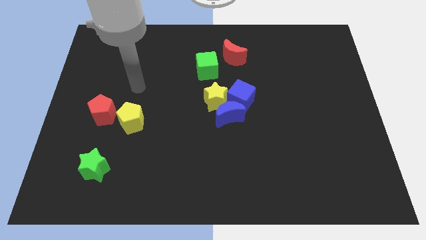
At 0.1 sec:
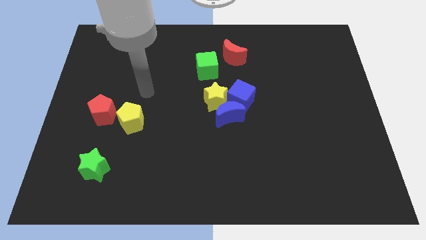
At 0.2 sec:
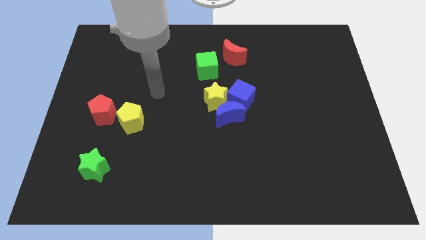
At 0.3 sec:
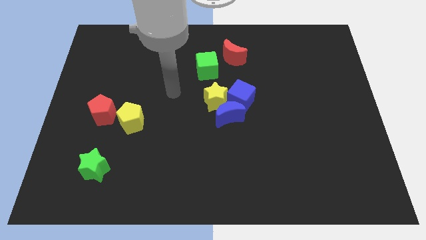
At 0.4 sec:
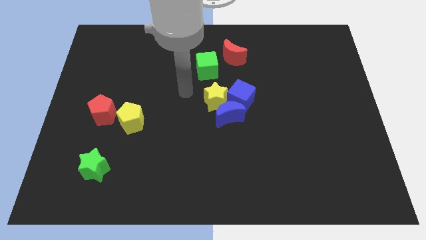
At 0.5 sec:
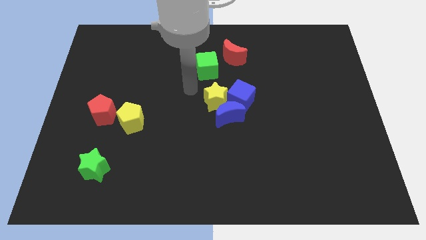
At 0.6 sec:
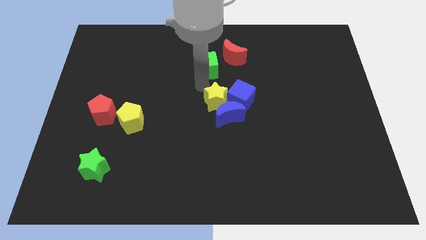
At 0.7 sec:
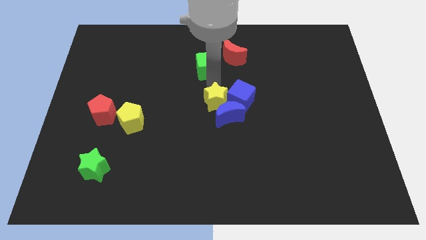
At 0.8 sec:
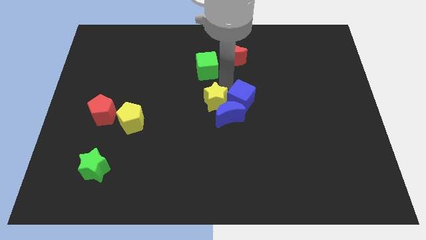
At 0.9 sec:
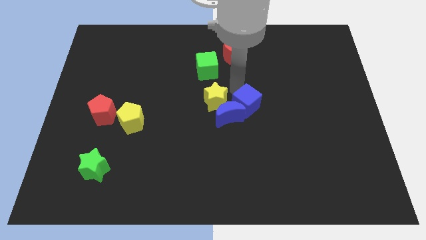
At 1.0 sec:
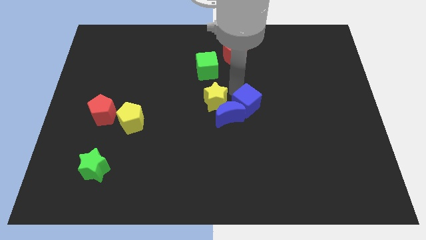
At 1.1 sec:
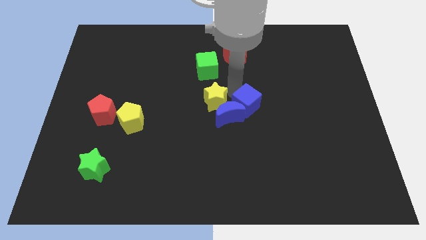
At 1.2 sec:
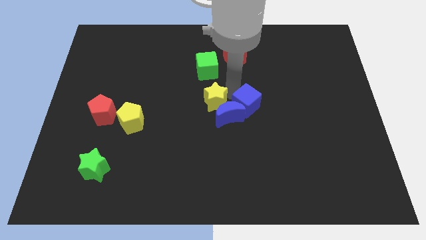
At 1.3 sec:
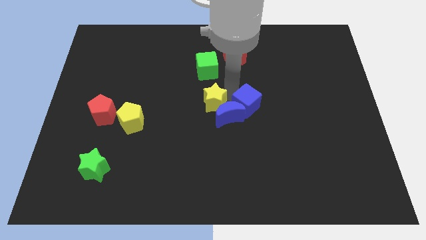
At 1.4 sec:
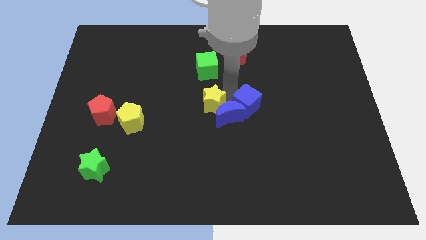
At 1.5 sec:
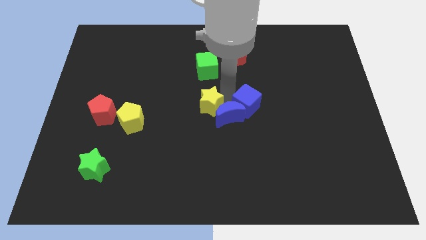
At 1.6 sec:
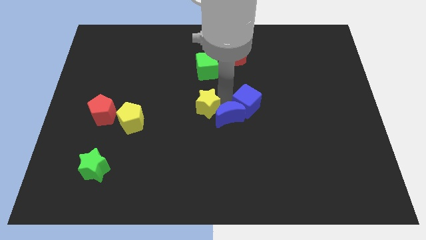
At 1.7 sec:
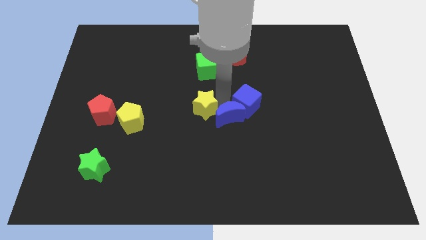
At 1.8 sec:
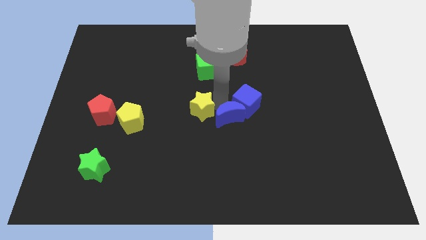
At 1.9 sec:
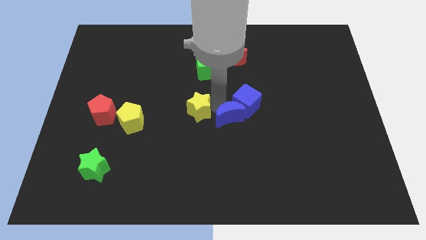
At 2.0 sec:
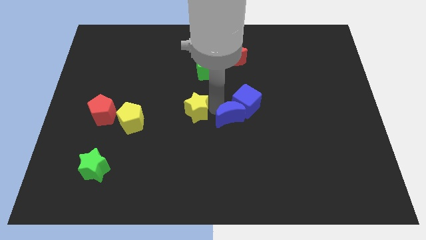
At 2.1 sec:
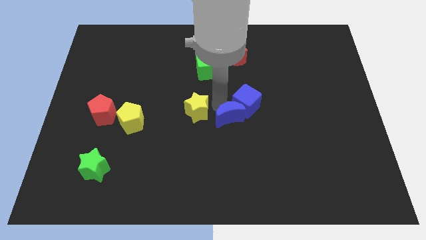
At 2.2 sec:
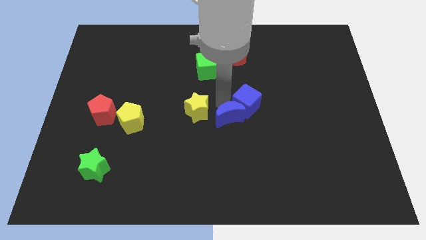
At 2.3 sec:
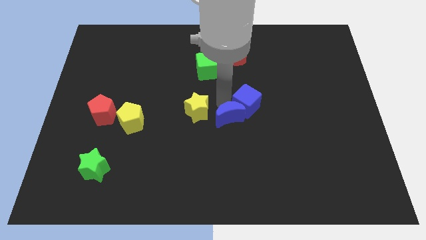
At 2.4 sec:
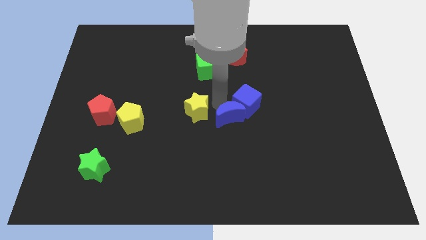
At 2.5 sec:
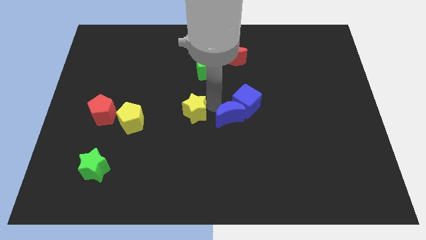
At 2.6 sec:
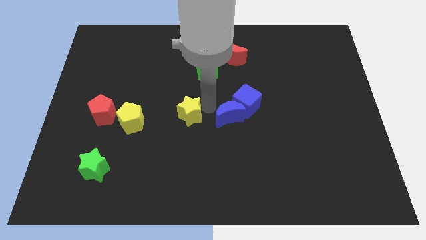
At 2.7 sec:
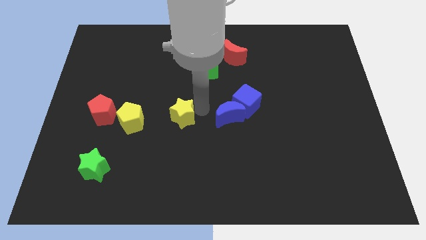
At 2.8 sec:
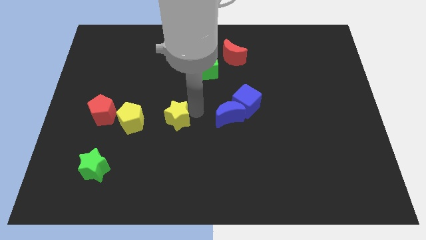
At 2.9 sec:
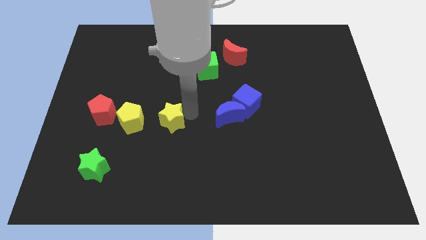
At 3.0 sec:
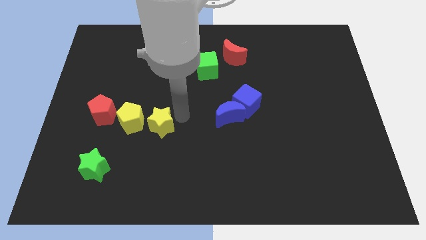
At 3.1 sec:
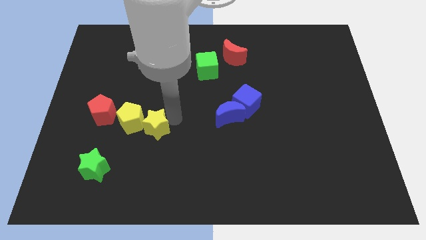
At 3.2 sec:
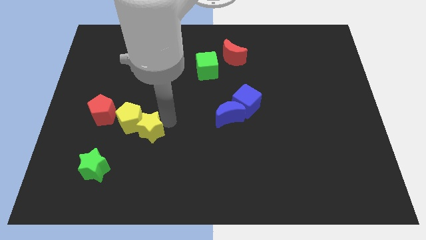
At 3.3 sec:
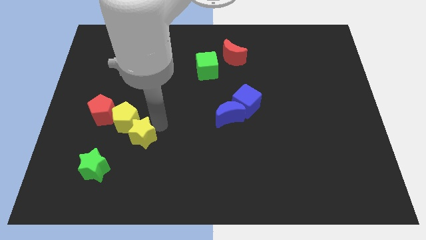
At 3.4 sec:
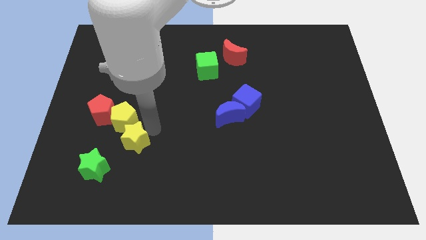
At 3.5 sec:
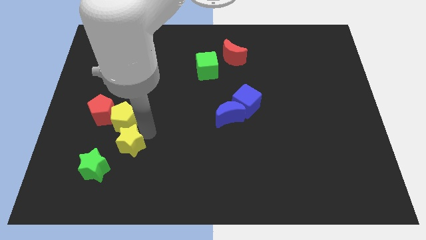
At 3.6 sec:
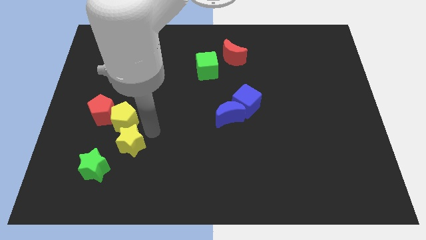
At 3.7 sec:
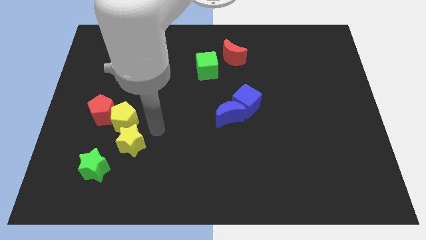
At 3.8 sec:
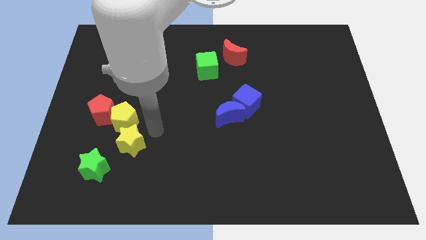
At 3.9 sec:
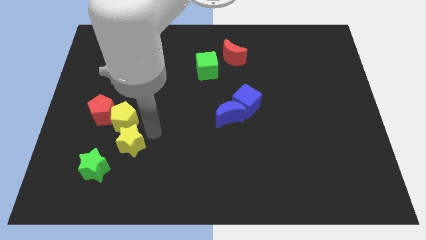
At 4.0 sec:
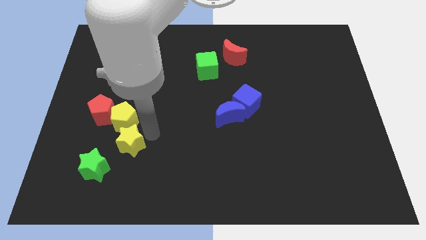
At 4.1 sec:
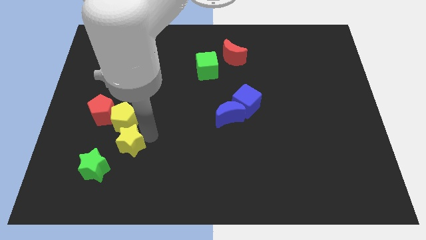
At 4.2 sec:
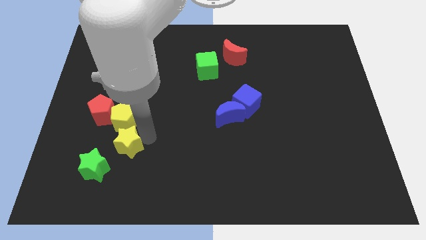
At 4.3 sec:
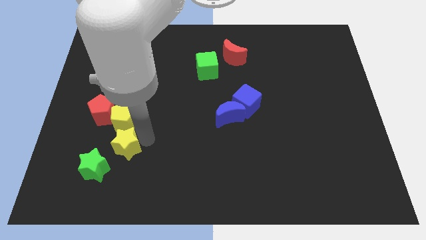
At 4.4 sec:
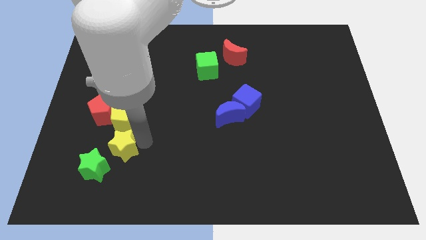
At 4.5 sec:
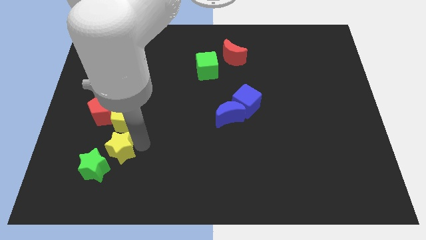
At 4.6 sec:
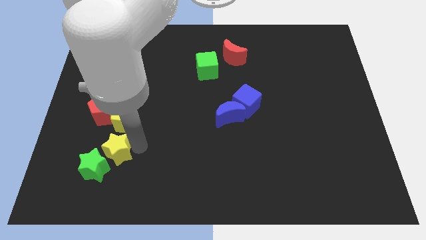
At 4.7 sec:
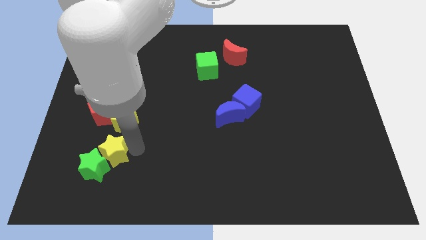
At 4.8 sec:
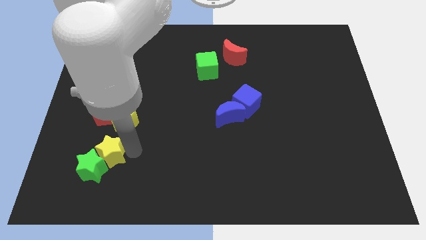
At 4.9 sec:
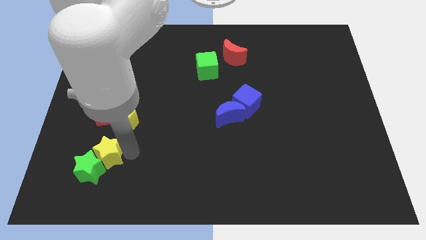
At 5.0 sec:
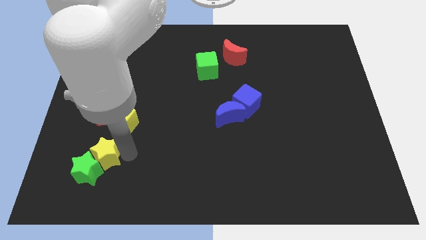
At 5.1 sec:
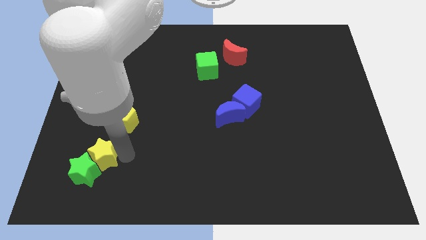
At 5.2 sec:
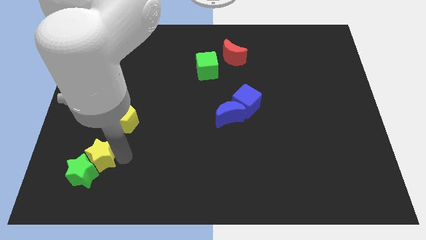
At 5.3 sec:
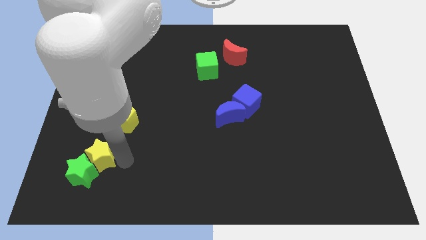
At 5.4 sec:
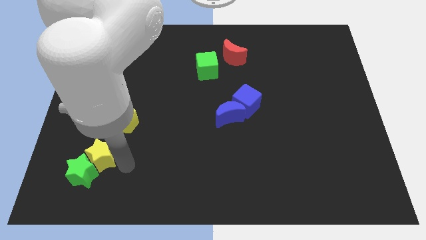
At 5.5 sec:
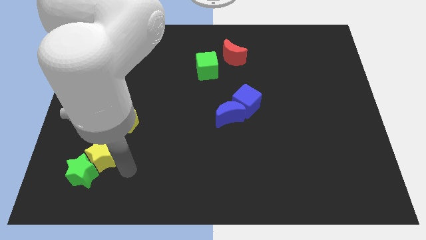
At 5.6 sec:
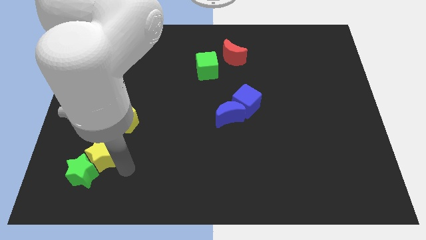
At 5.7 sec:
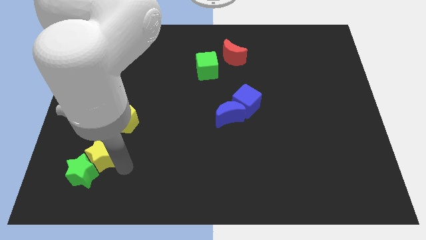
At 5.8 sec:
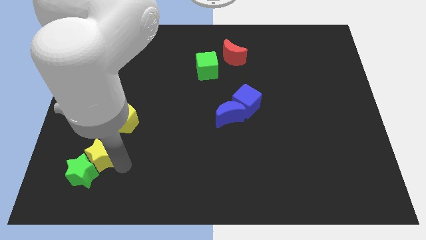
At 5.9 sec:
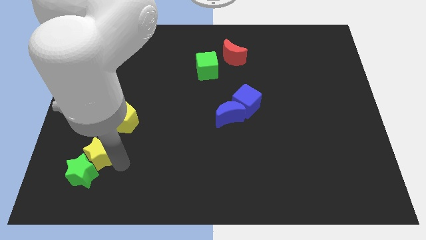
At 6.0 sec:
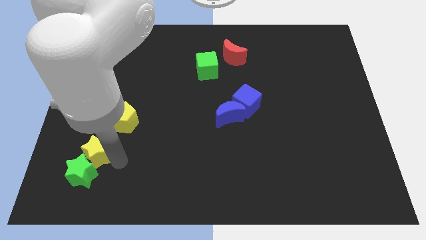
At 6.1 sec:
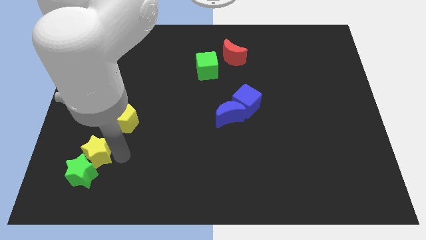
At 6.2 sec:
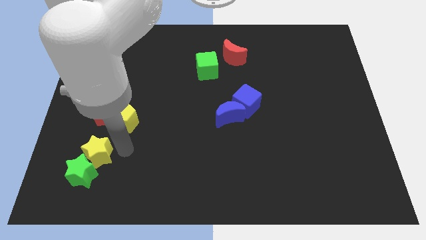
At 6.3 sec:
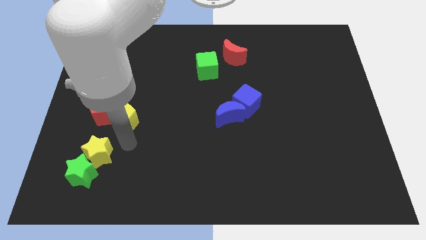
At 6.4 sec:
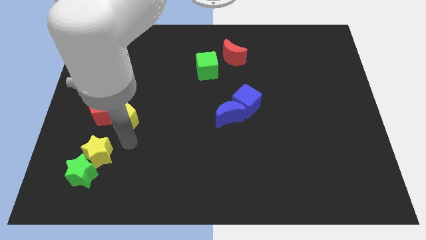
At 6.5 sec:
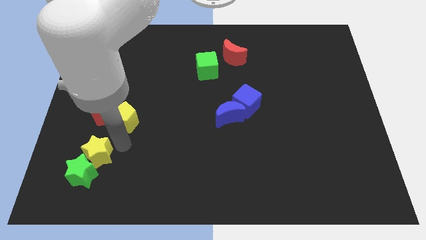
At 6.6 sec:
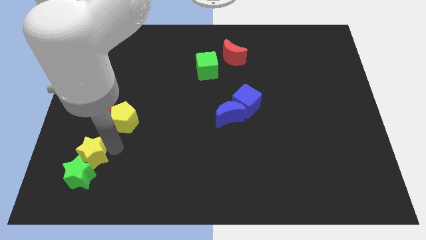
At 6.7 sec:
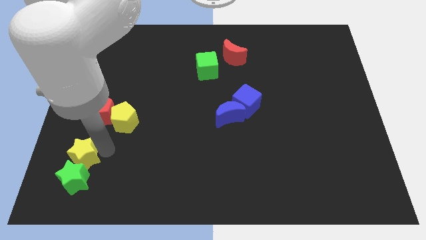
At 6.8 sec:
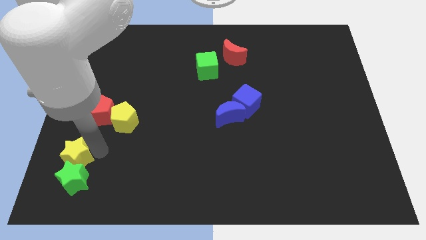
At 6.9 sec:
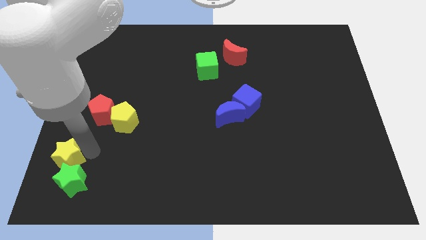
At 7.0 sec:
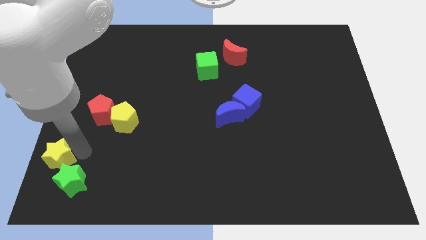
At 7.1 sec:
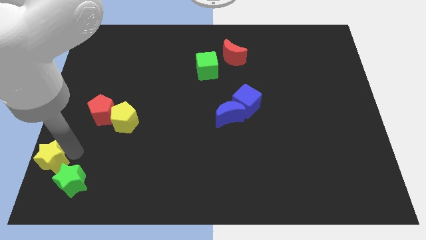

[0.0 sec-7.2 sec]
move the yellow star to the bottom left
